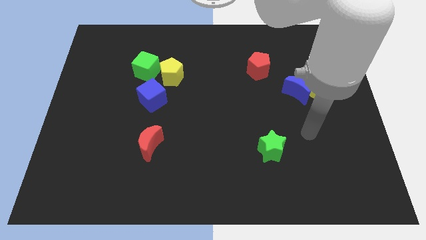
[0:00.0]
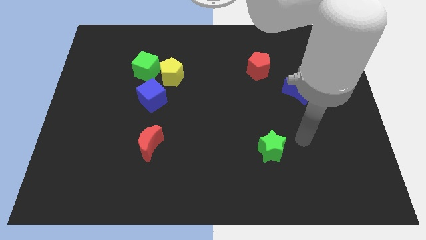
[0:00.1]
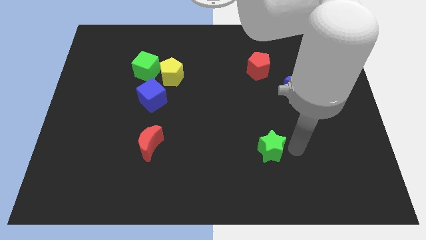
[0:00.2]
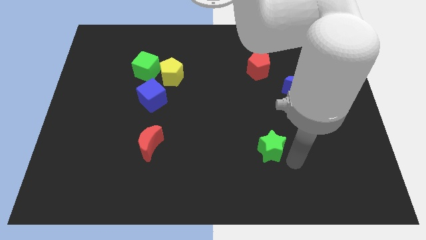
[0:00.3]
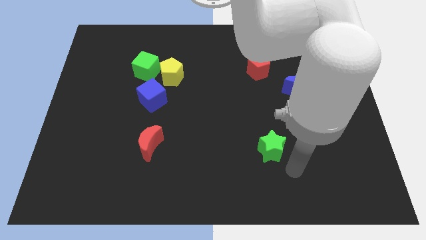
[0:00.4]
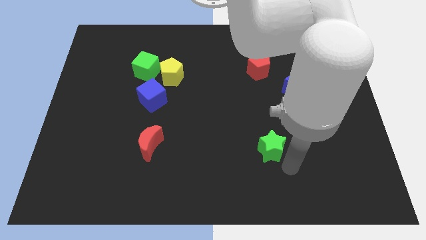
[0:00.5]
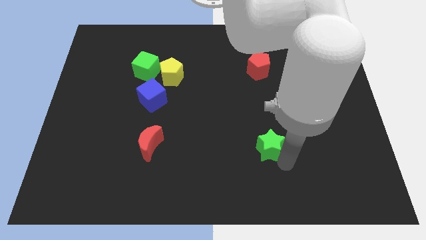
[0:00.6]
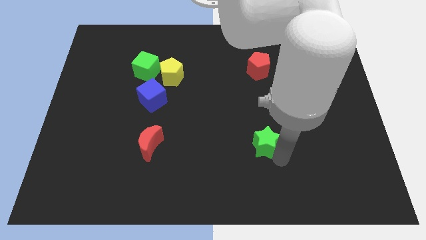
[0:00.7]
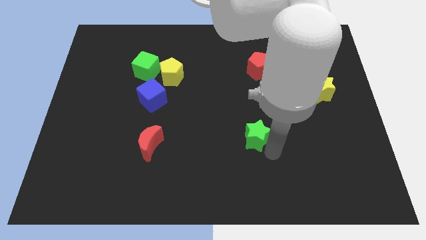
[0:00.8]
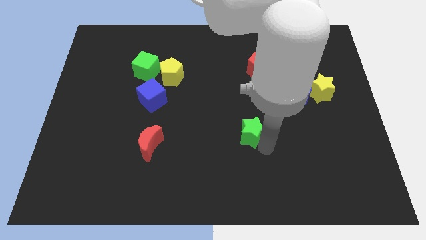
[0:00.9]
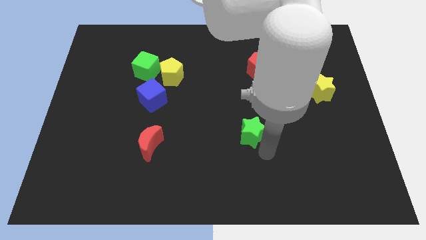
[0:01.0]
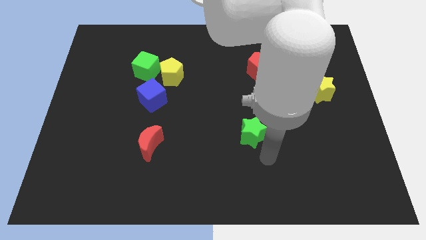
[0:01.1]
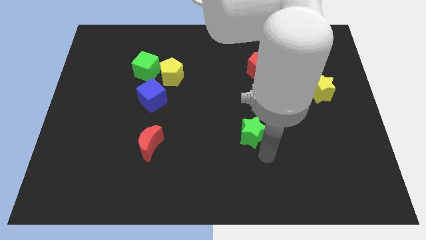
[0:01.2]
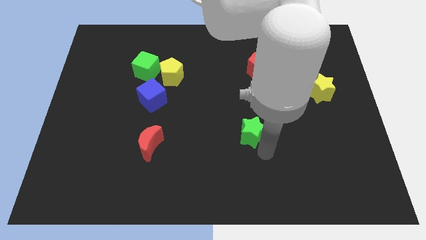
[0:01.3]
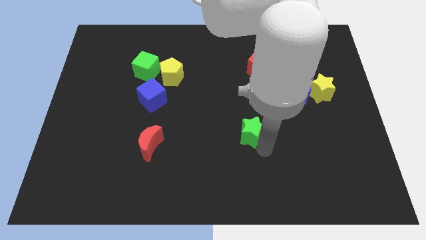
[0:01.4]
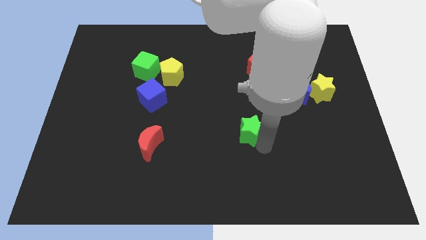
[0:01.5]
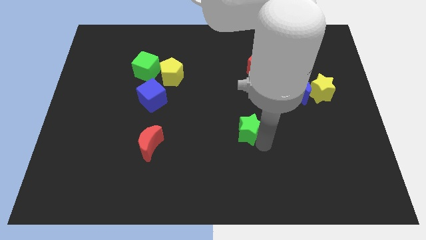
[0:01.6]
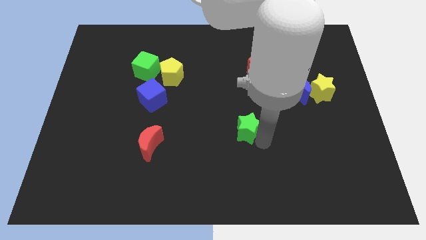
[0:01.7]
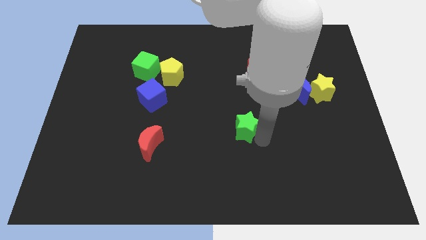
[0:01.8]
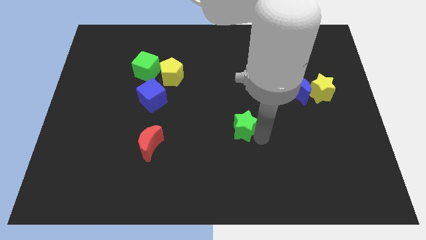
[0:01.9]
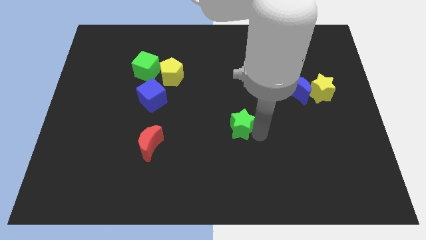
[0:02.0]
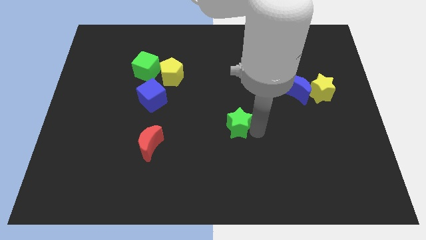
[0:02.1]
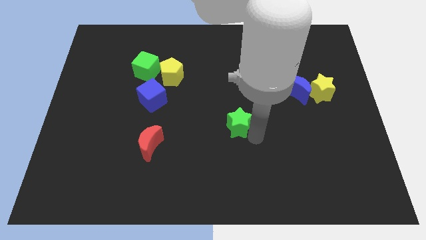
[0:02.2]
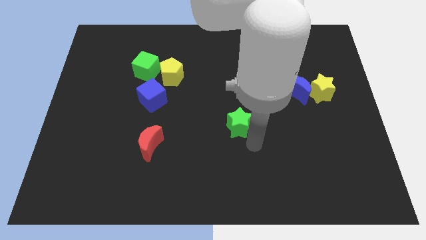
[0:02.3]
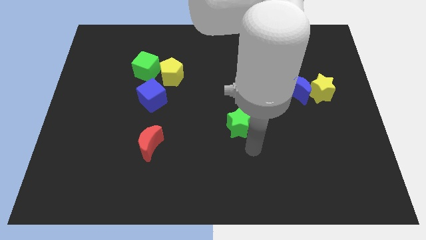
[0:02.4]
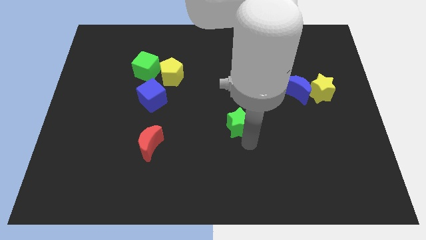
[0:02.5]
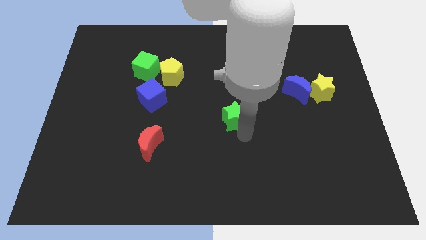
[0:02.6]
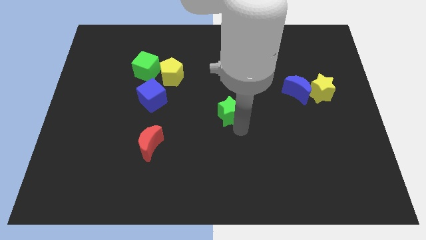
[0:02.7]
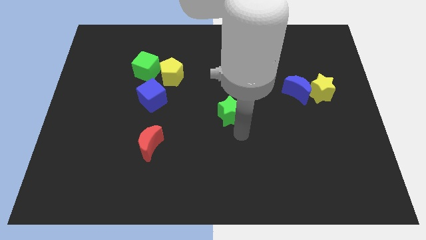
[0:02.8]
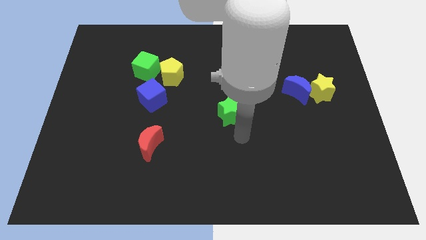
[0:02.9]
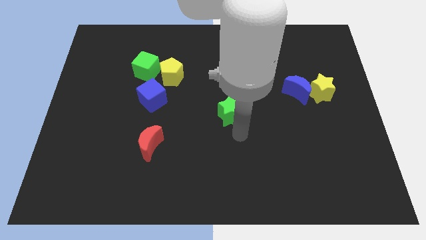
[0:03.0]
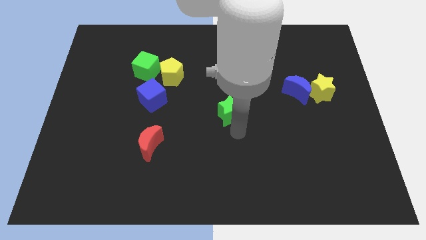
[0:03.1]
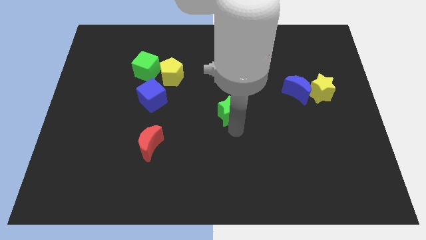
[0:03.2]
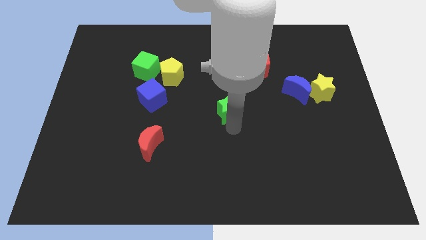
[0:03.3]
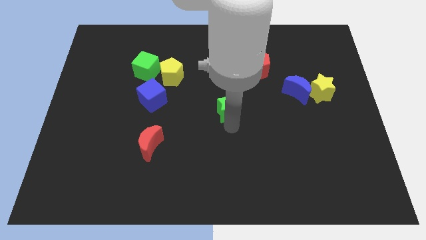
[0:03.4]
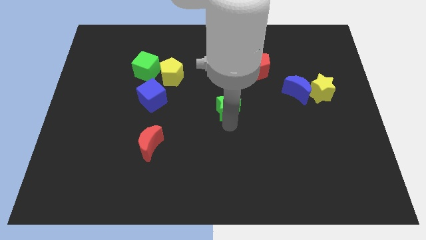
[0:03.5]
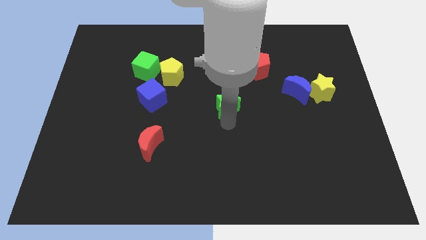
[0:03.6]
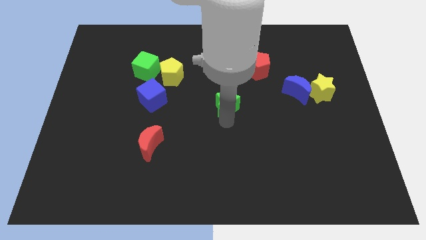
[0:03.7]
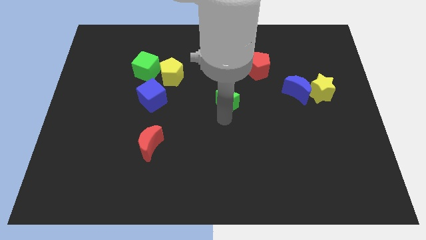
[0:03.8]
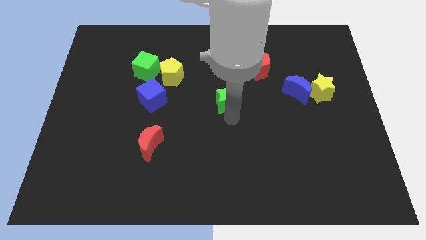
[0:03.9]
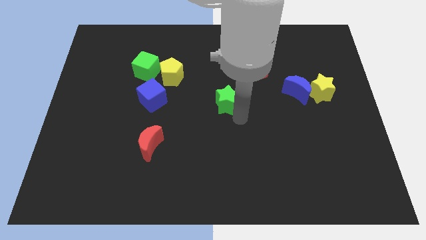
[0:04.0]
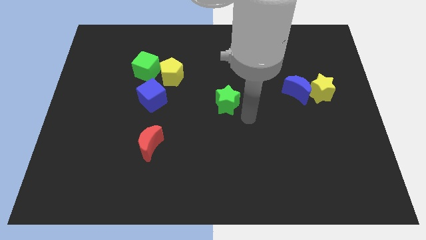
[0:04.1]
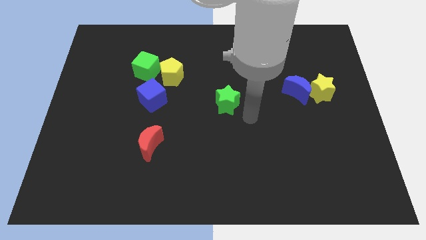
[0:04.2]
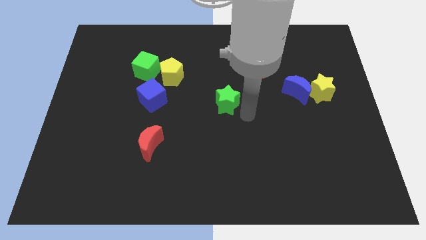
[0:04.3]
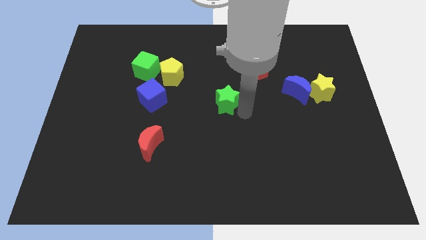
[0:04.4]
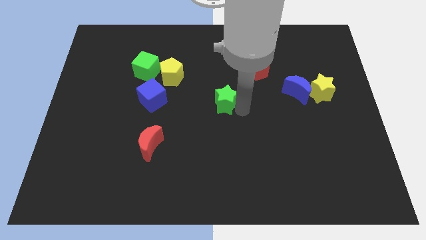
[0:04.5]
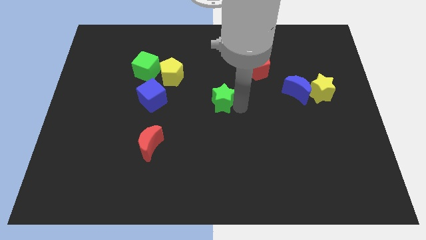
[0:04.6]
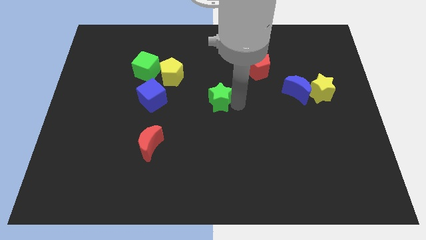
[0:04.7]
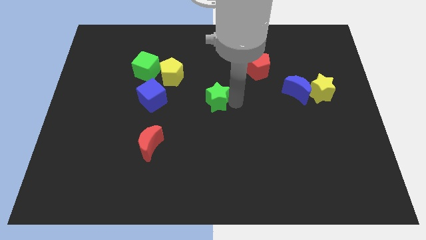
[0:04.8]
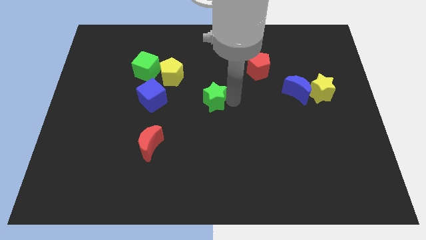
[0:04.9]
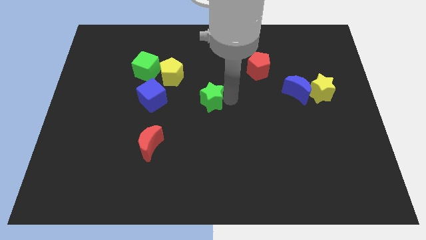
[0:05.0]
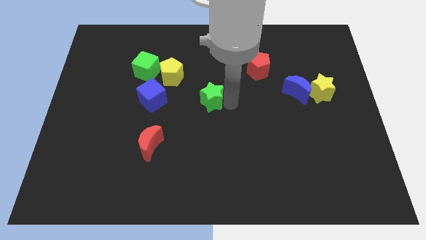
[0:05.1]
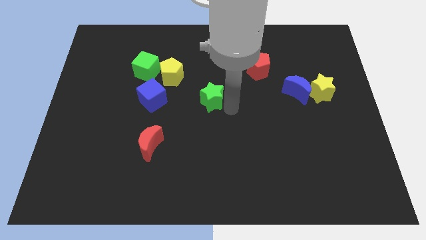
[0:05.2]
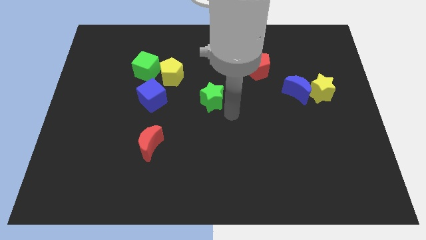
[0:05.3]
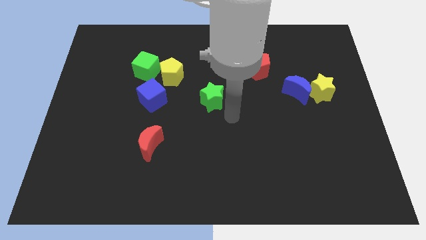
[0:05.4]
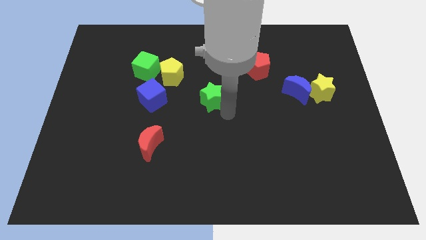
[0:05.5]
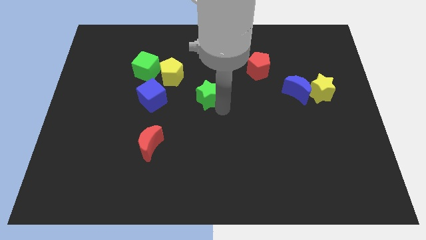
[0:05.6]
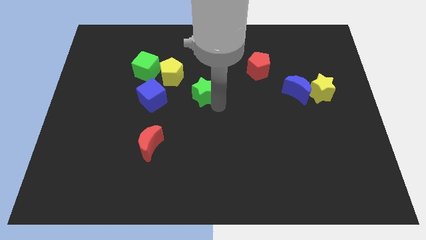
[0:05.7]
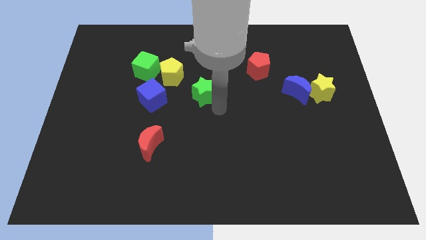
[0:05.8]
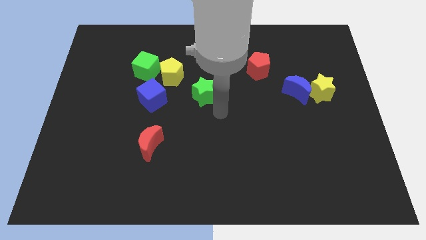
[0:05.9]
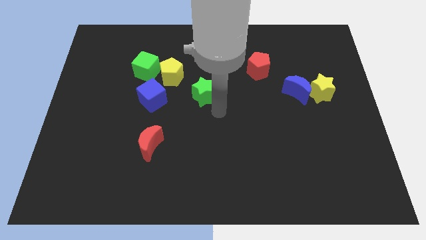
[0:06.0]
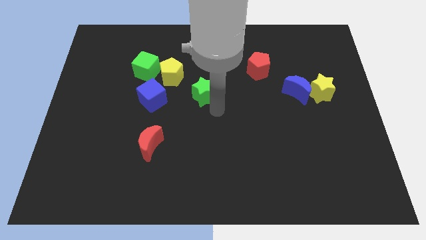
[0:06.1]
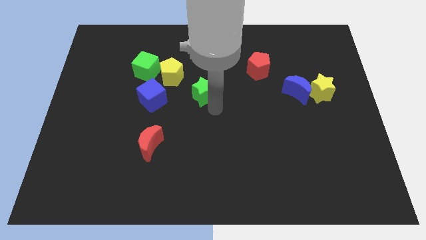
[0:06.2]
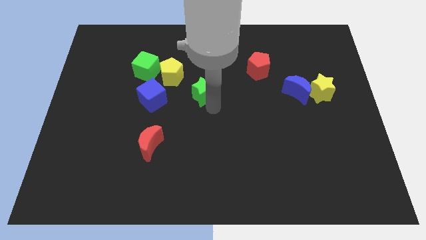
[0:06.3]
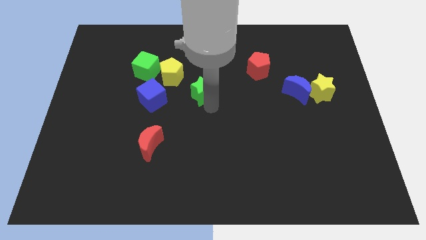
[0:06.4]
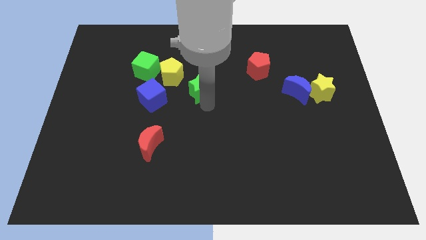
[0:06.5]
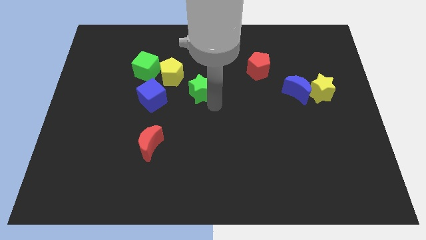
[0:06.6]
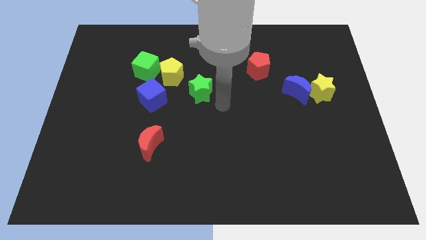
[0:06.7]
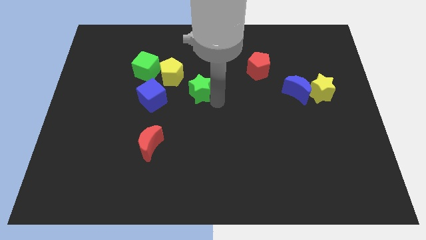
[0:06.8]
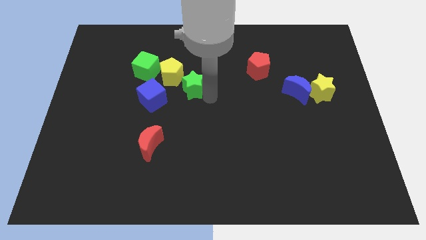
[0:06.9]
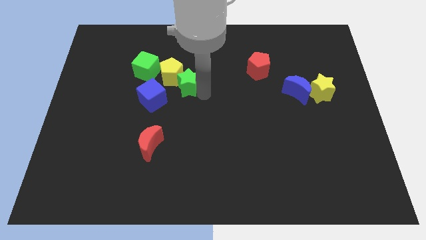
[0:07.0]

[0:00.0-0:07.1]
move the green star to the yellow pentagon

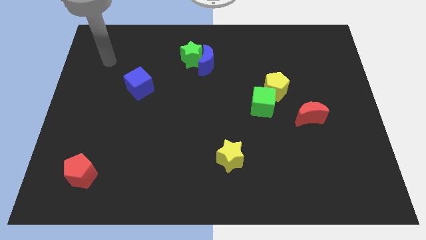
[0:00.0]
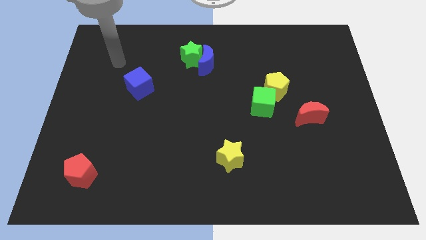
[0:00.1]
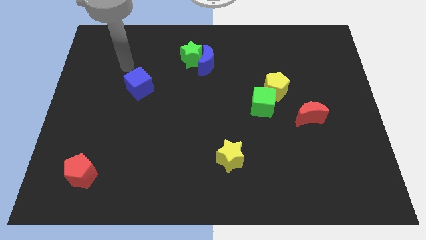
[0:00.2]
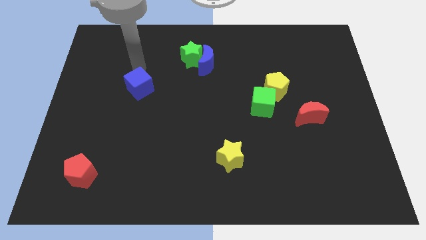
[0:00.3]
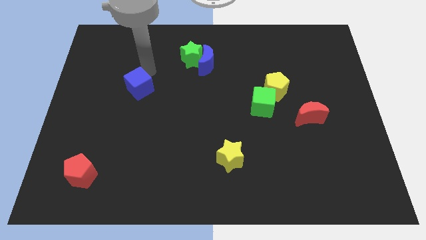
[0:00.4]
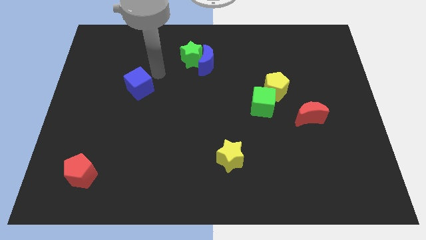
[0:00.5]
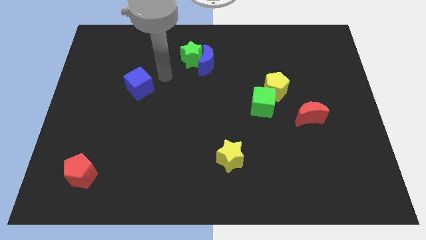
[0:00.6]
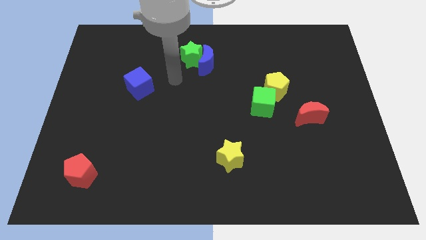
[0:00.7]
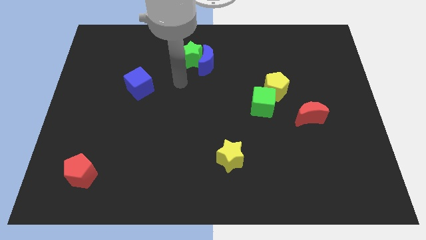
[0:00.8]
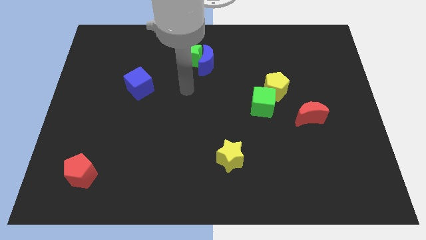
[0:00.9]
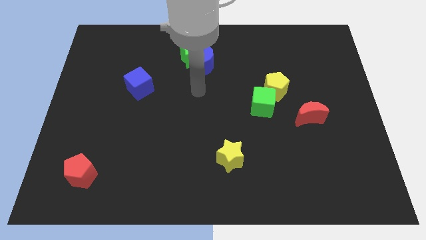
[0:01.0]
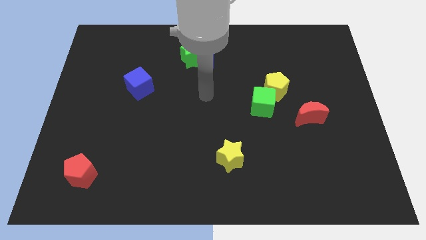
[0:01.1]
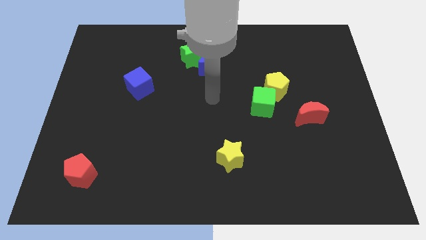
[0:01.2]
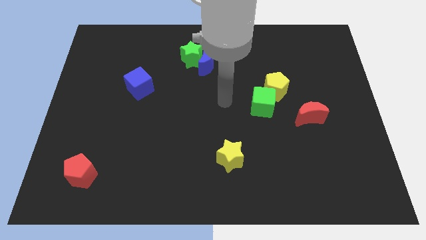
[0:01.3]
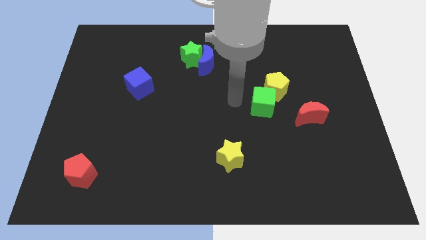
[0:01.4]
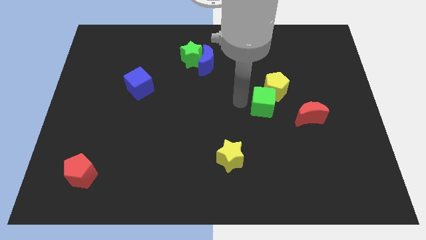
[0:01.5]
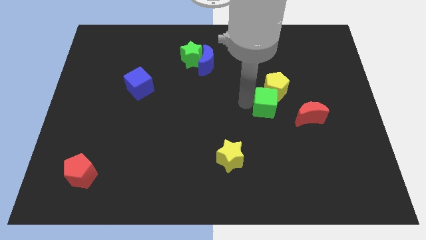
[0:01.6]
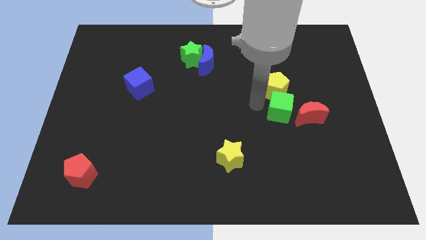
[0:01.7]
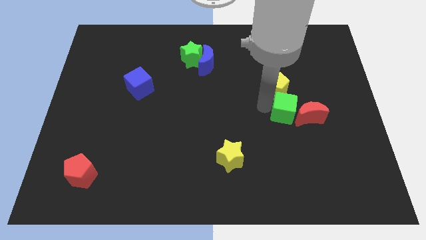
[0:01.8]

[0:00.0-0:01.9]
put the green cube towards the red moon
